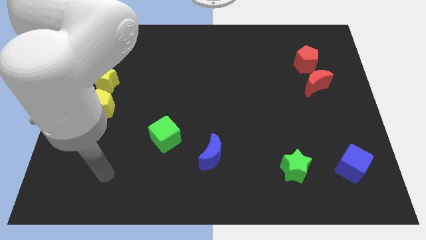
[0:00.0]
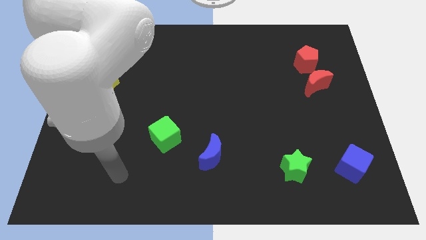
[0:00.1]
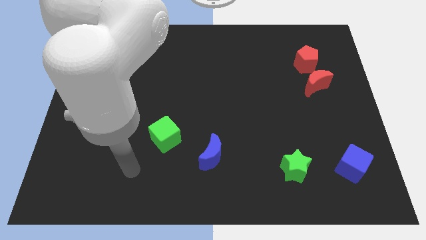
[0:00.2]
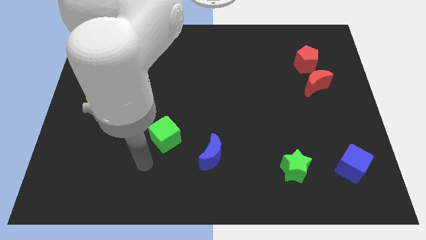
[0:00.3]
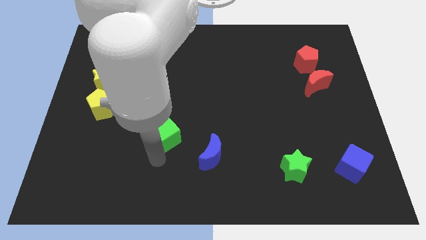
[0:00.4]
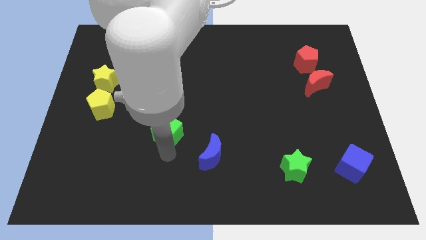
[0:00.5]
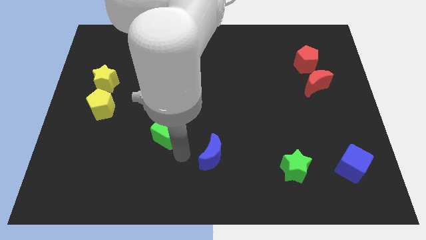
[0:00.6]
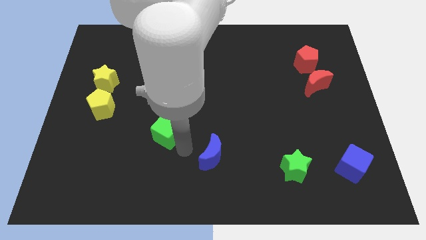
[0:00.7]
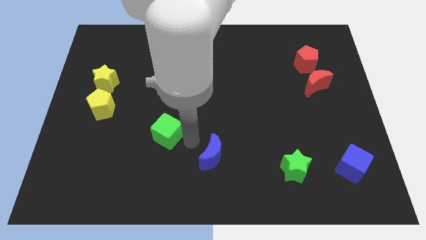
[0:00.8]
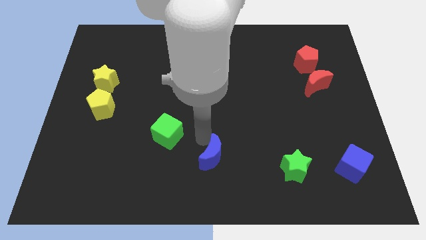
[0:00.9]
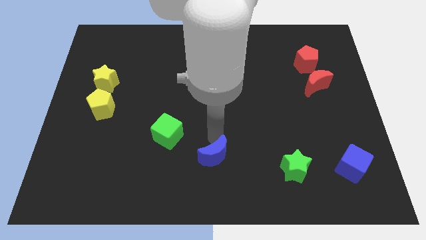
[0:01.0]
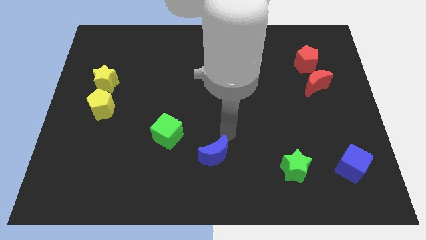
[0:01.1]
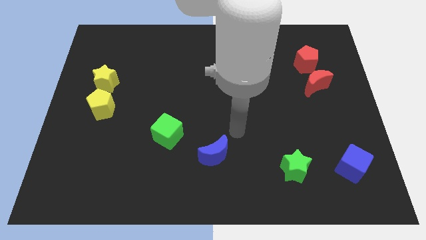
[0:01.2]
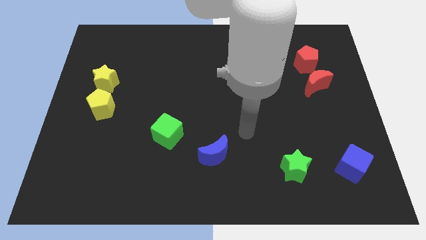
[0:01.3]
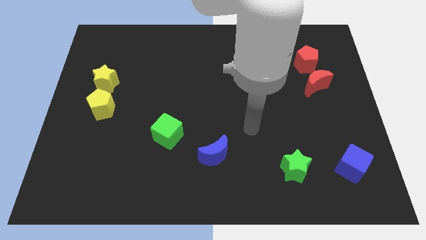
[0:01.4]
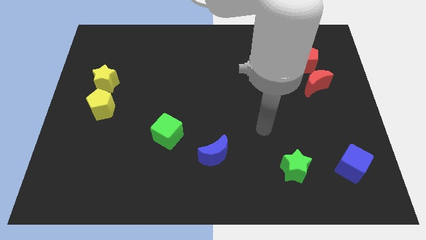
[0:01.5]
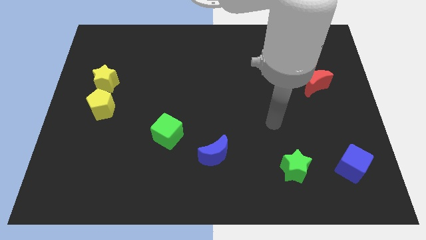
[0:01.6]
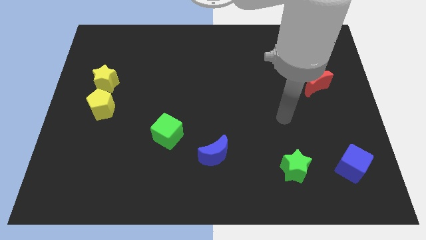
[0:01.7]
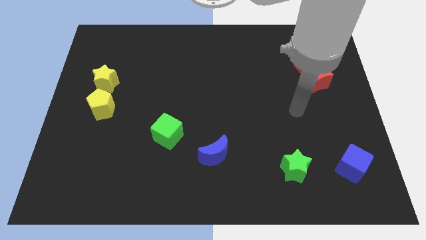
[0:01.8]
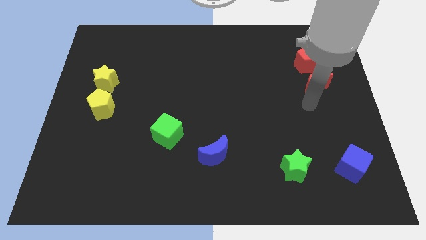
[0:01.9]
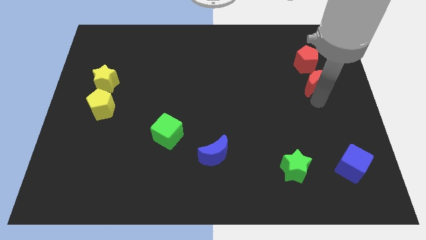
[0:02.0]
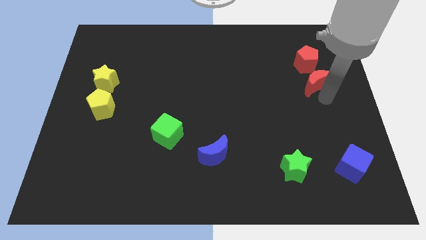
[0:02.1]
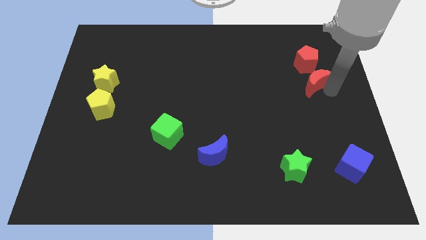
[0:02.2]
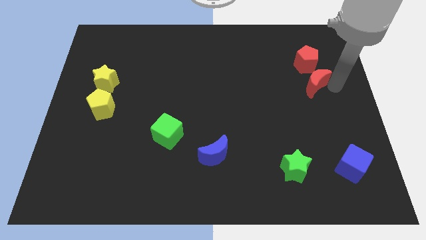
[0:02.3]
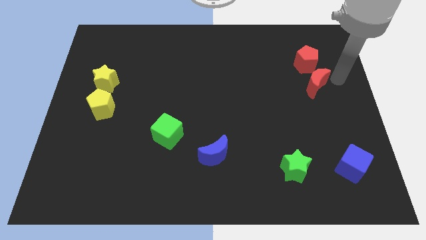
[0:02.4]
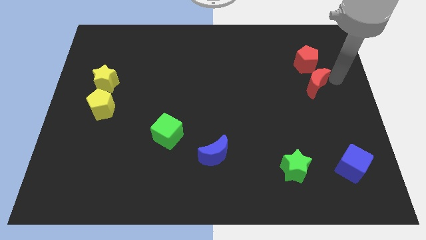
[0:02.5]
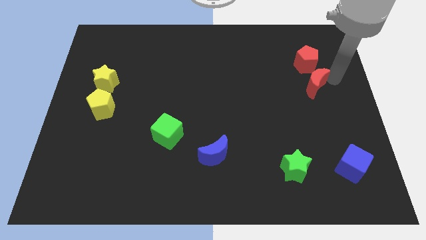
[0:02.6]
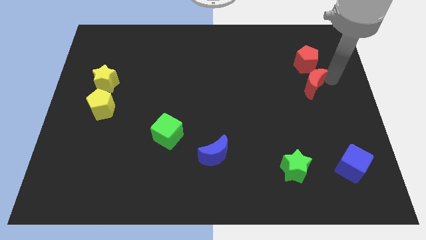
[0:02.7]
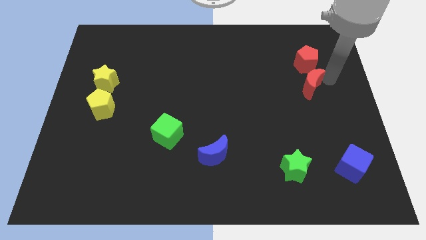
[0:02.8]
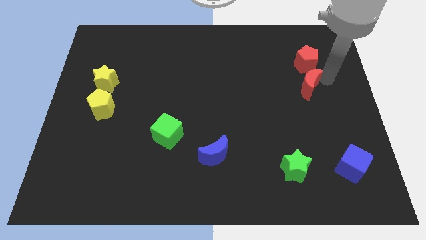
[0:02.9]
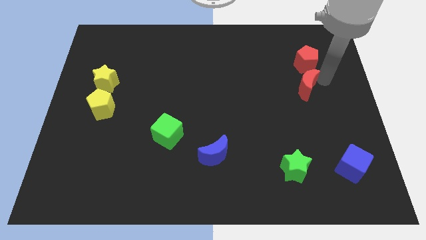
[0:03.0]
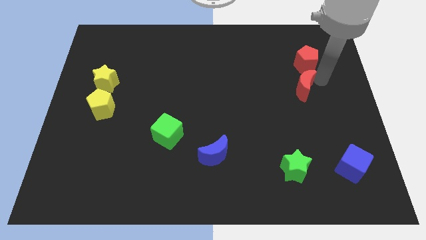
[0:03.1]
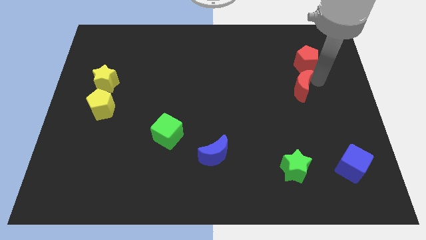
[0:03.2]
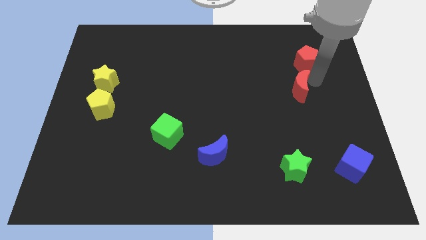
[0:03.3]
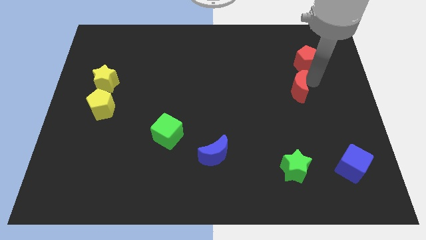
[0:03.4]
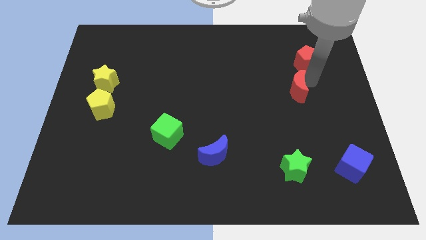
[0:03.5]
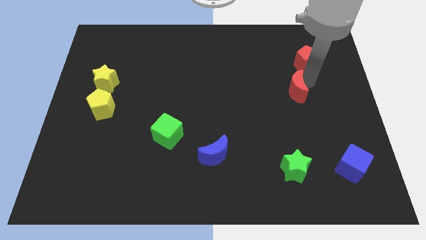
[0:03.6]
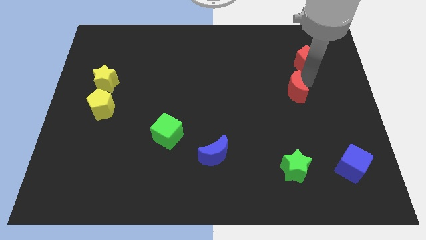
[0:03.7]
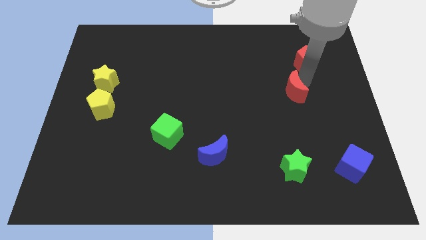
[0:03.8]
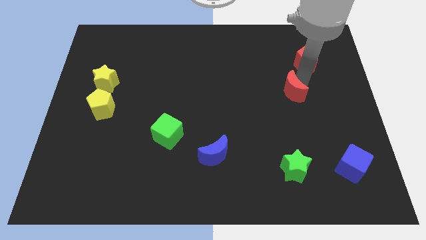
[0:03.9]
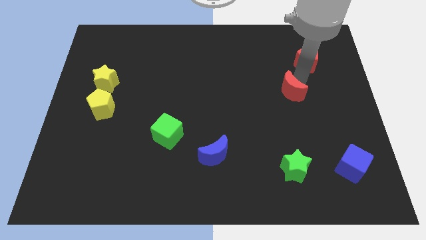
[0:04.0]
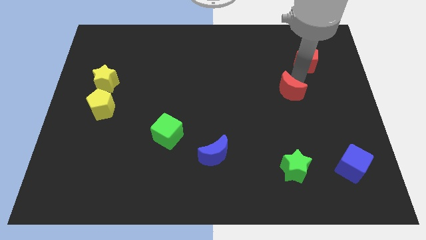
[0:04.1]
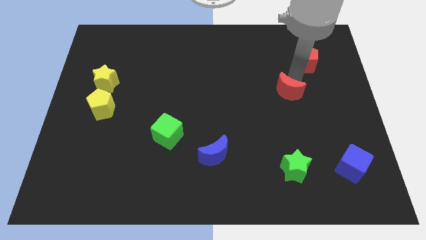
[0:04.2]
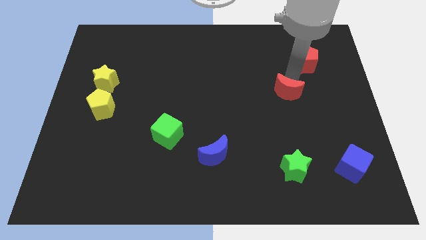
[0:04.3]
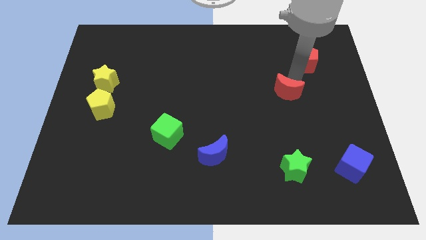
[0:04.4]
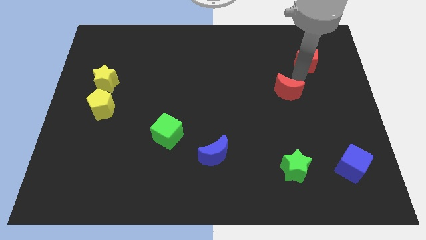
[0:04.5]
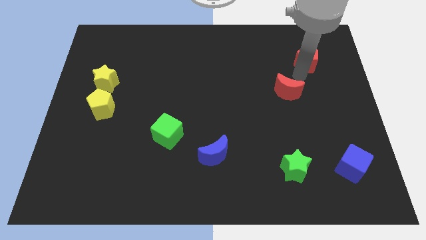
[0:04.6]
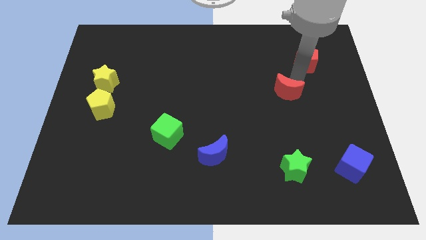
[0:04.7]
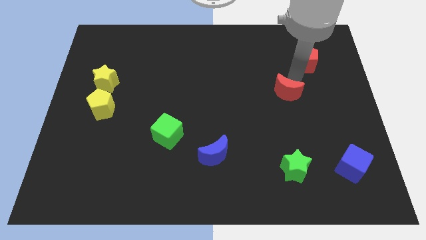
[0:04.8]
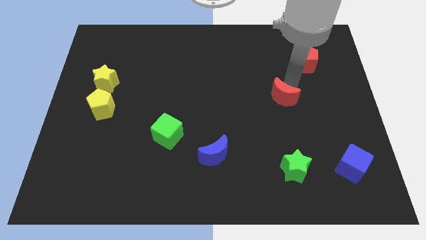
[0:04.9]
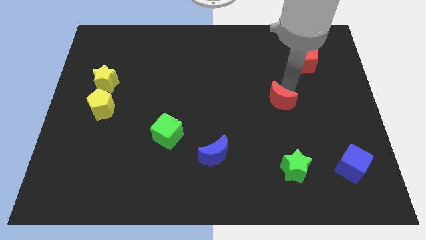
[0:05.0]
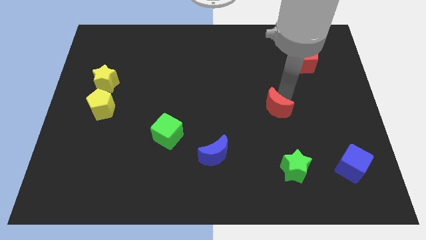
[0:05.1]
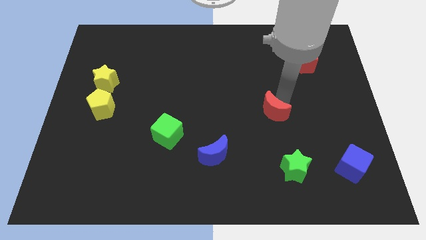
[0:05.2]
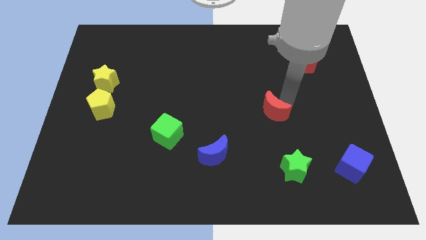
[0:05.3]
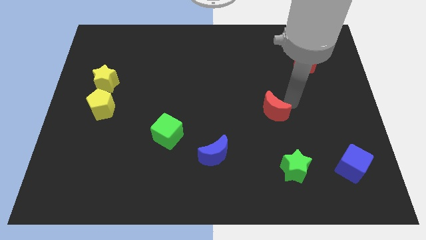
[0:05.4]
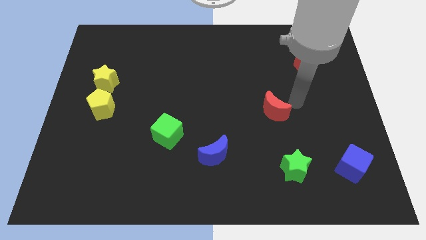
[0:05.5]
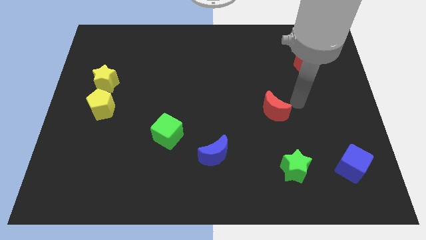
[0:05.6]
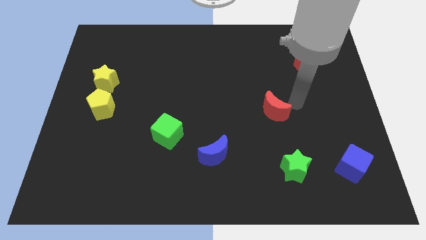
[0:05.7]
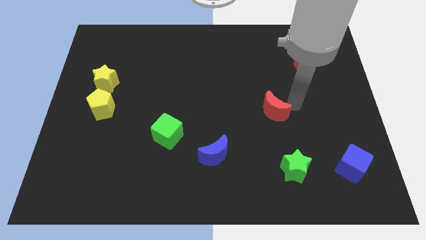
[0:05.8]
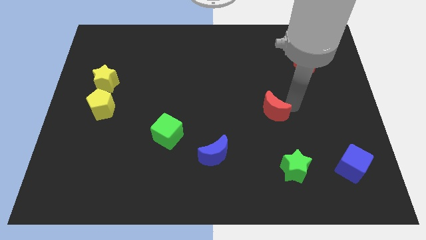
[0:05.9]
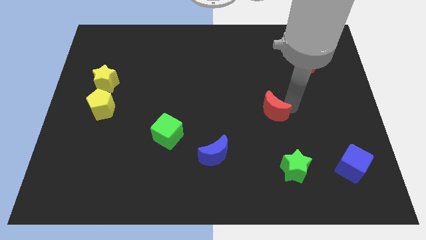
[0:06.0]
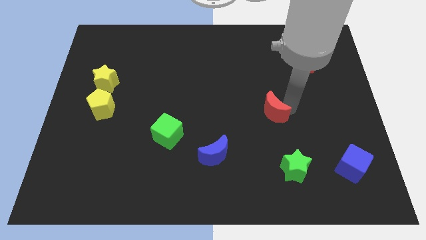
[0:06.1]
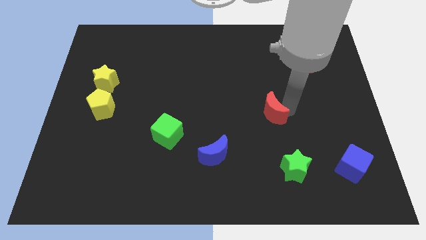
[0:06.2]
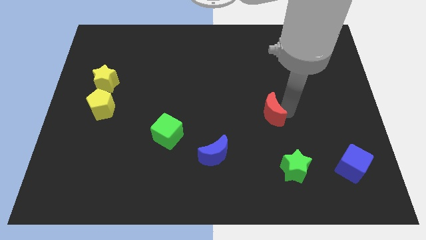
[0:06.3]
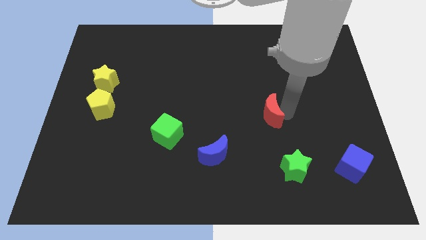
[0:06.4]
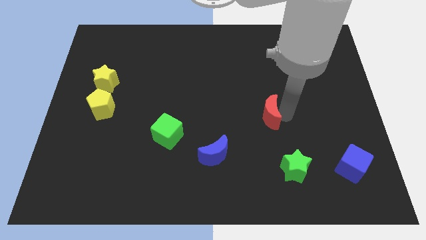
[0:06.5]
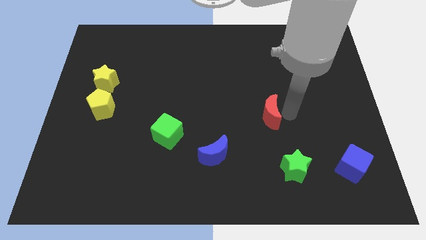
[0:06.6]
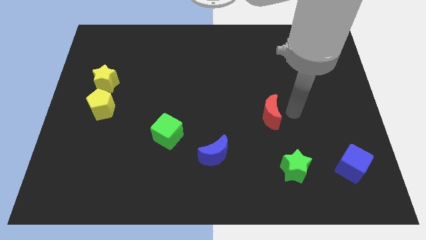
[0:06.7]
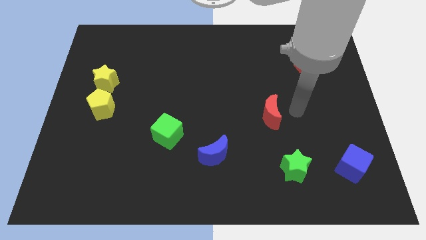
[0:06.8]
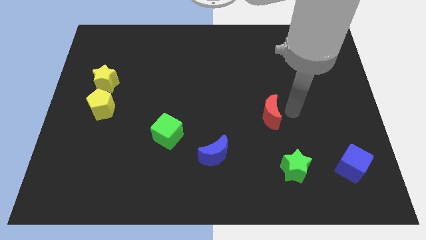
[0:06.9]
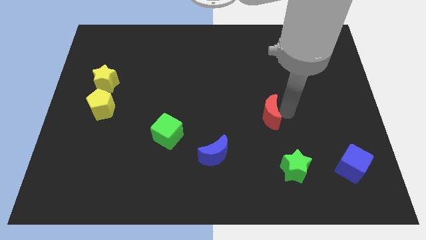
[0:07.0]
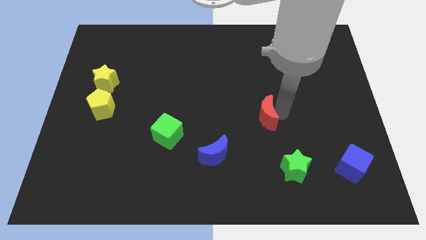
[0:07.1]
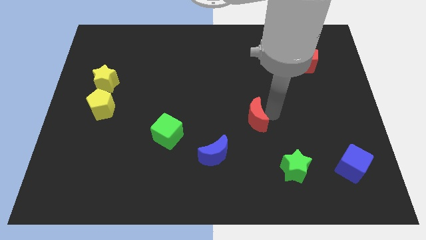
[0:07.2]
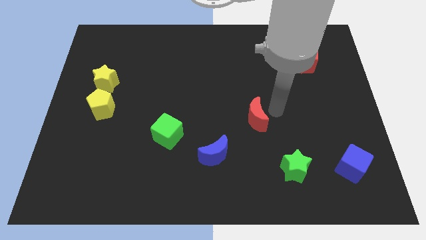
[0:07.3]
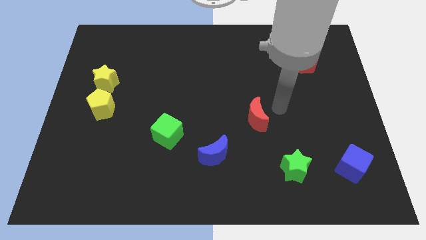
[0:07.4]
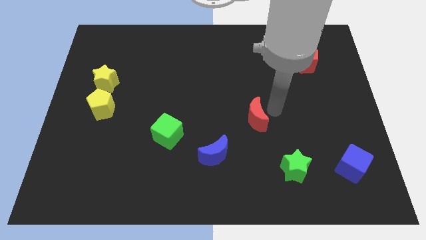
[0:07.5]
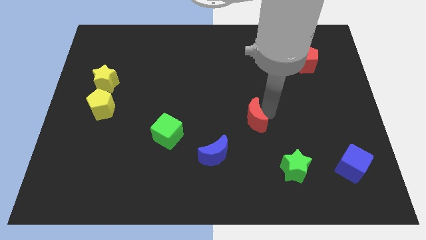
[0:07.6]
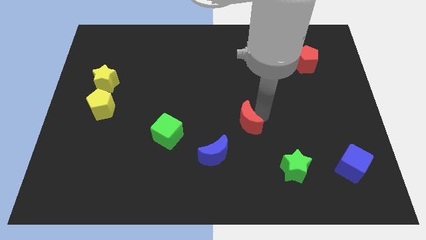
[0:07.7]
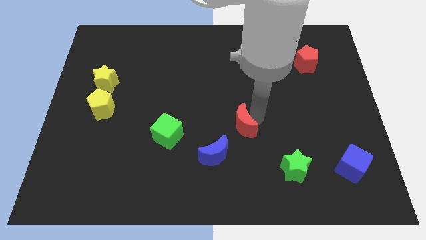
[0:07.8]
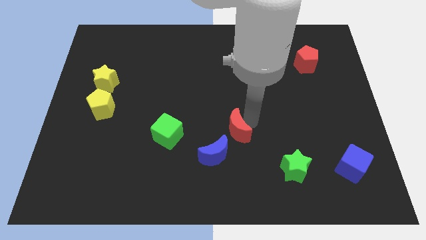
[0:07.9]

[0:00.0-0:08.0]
move the red moon to the right of the green cube
